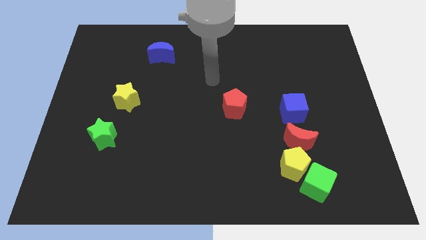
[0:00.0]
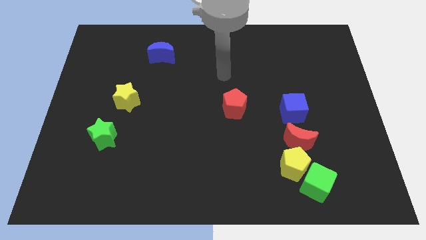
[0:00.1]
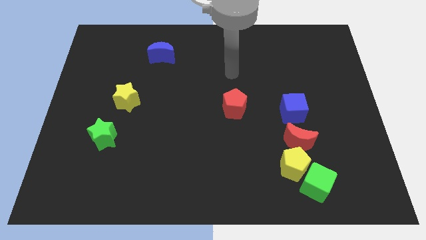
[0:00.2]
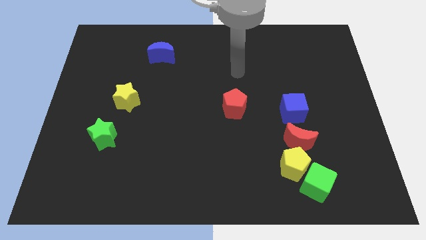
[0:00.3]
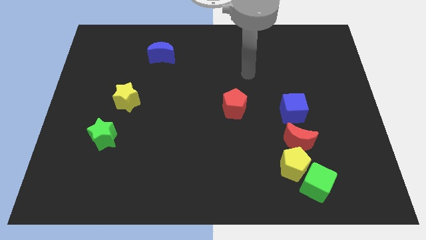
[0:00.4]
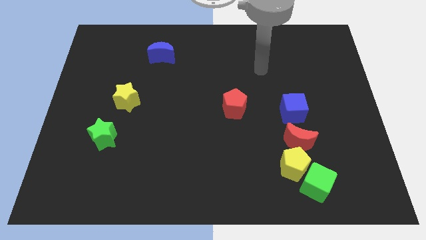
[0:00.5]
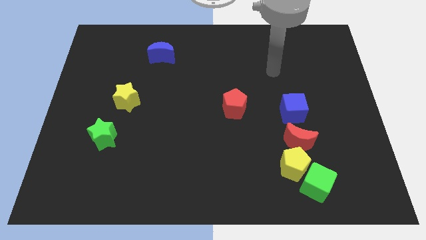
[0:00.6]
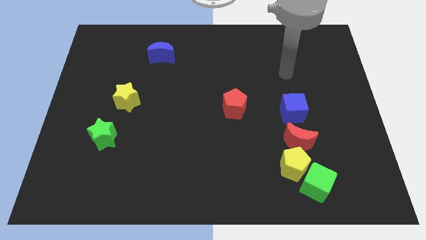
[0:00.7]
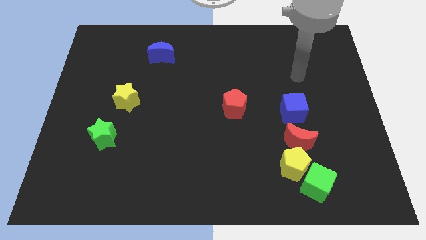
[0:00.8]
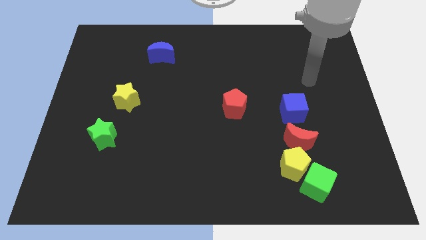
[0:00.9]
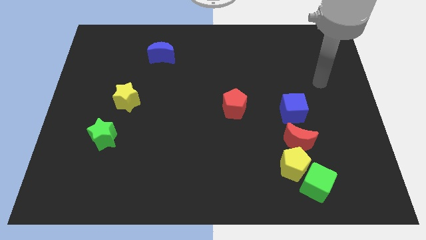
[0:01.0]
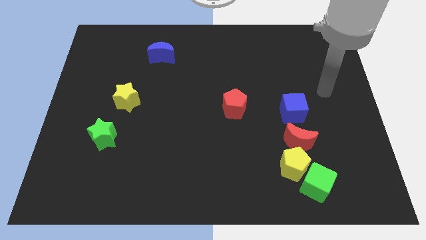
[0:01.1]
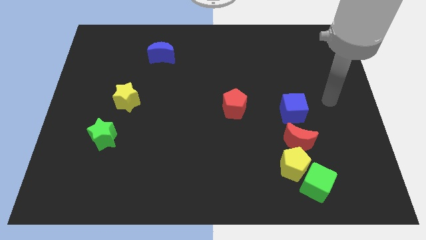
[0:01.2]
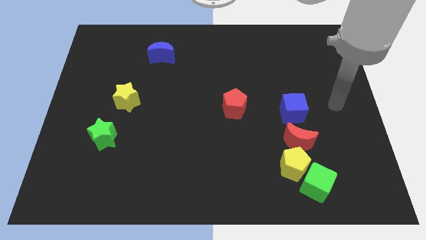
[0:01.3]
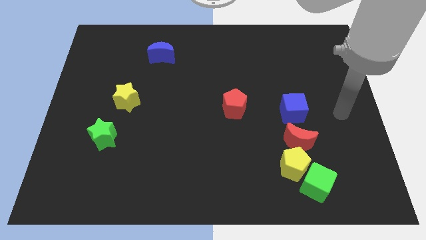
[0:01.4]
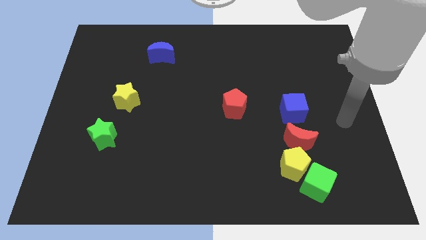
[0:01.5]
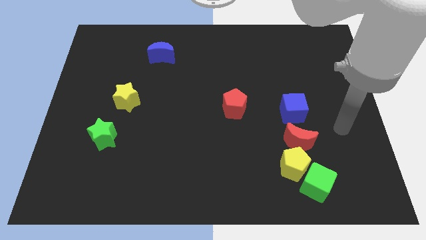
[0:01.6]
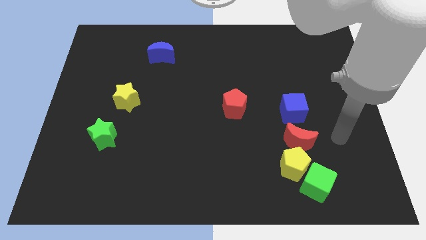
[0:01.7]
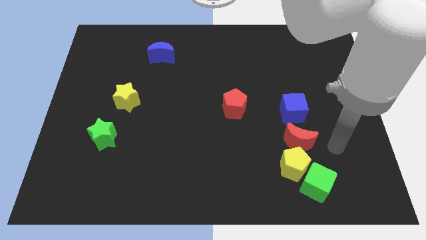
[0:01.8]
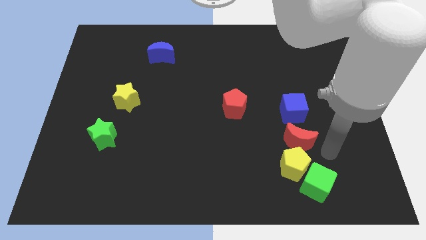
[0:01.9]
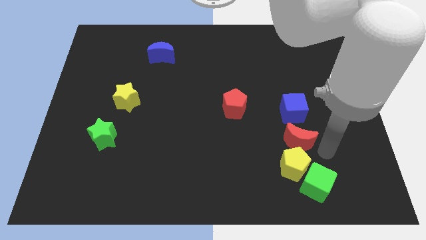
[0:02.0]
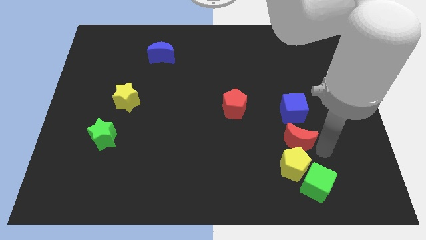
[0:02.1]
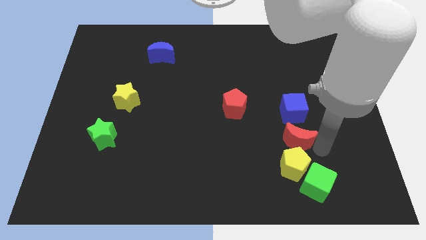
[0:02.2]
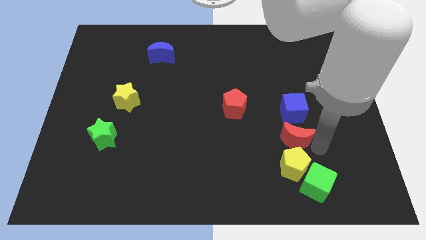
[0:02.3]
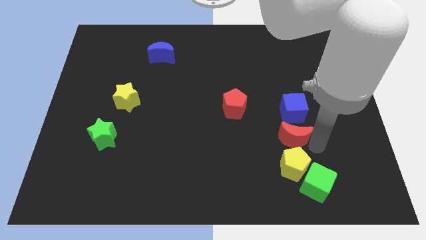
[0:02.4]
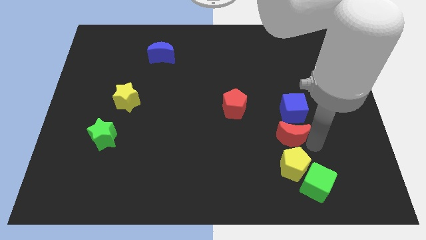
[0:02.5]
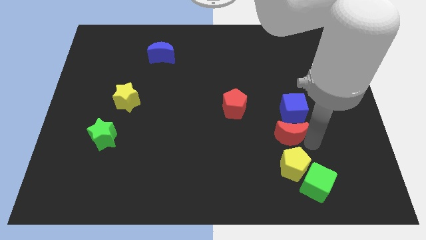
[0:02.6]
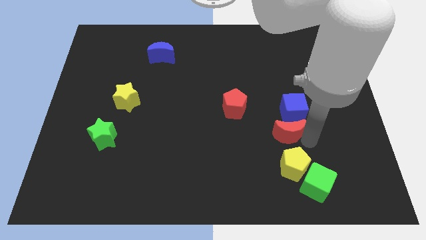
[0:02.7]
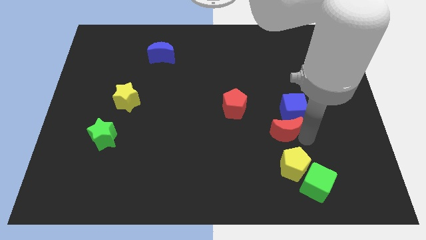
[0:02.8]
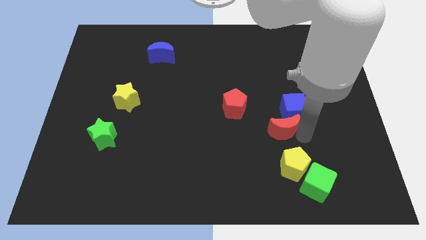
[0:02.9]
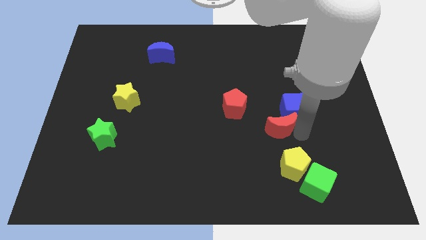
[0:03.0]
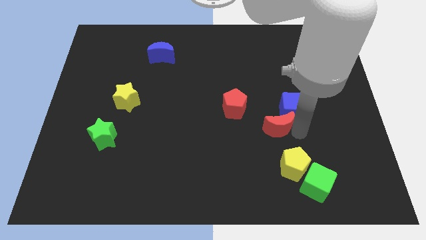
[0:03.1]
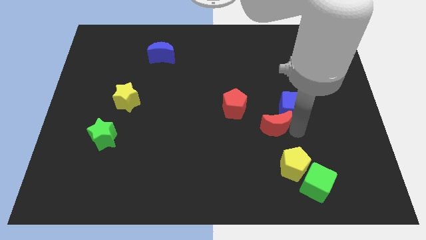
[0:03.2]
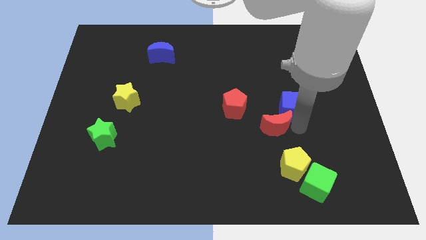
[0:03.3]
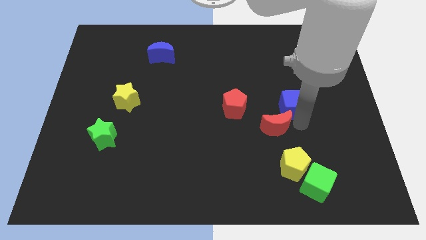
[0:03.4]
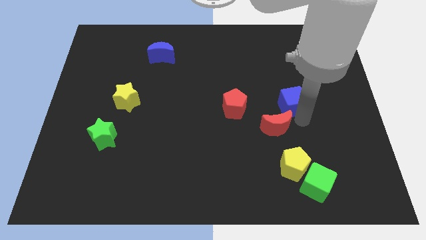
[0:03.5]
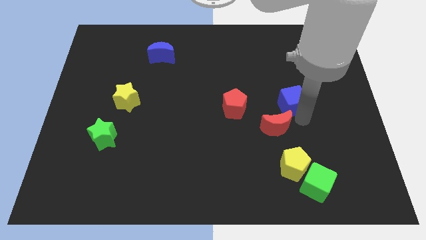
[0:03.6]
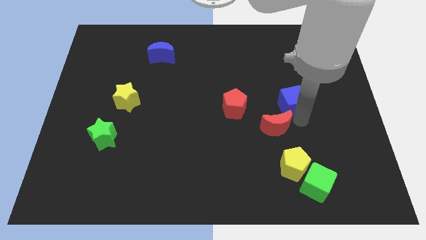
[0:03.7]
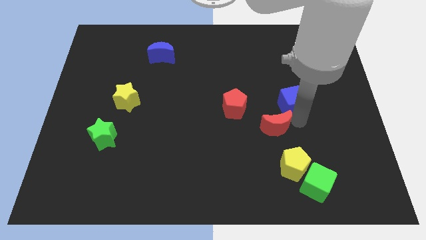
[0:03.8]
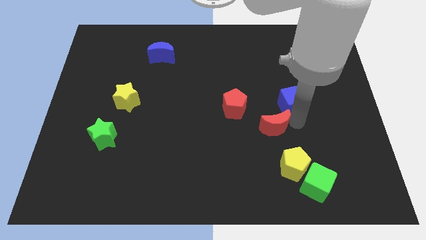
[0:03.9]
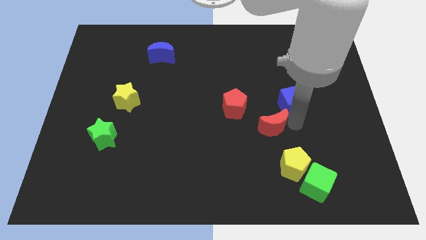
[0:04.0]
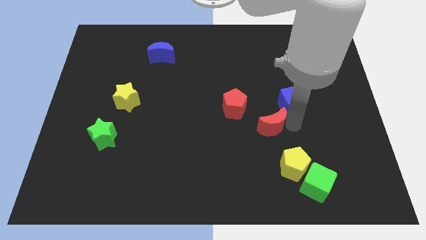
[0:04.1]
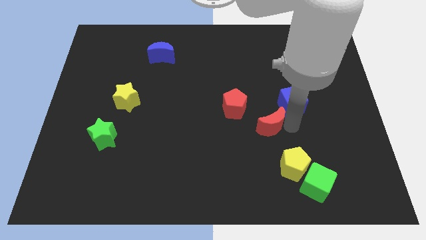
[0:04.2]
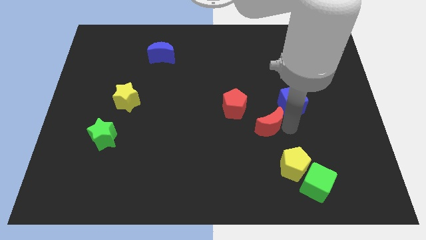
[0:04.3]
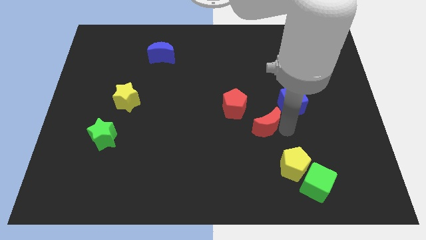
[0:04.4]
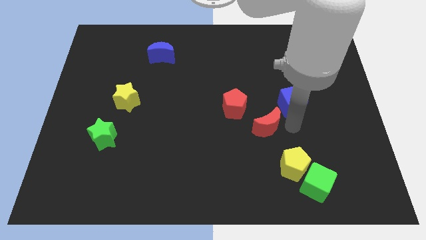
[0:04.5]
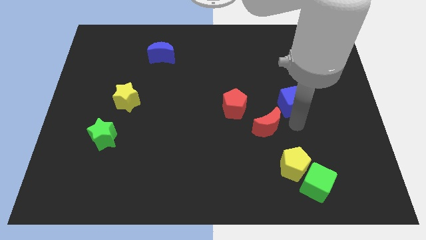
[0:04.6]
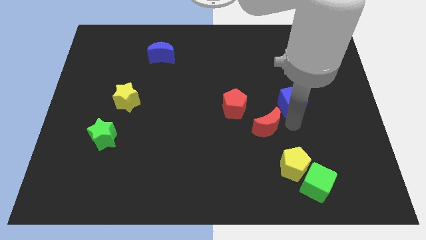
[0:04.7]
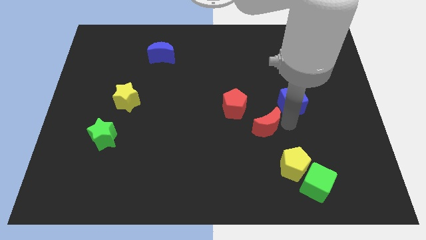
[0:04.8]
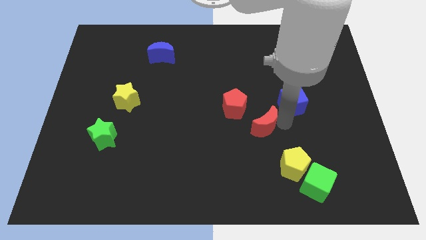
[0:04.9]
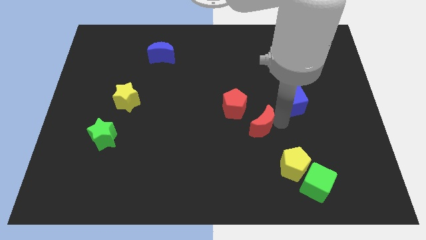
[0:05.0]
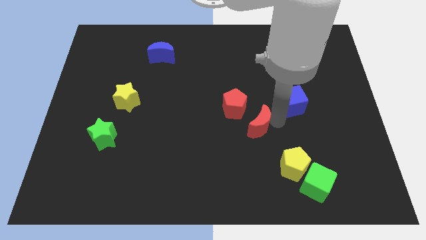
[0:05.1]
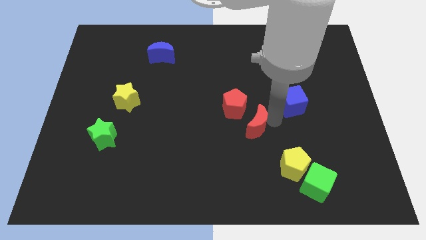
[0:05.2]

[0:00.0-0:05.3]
push the red moon to the center
